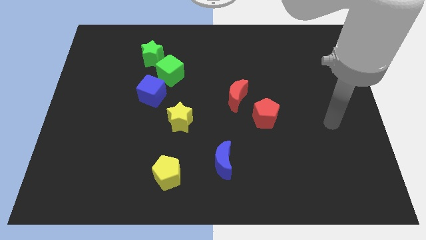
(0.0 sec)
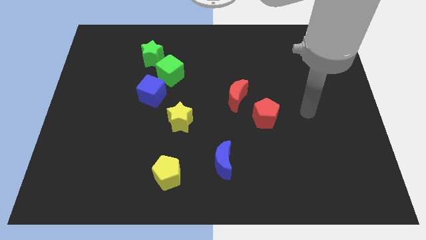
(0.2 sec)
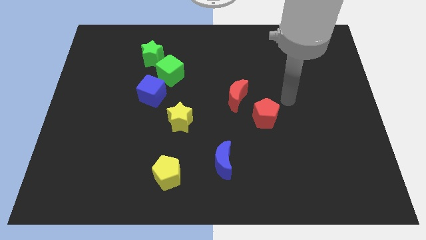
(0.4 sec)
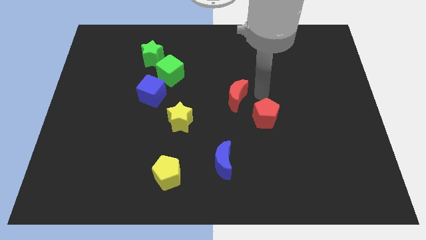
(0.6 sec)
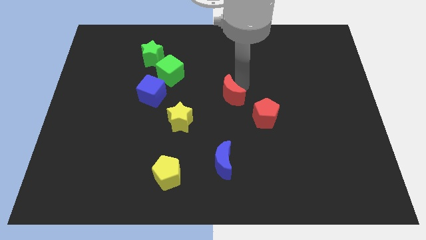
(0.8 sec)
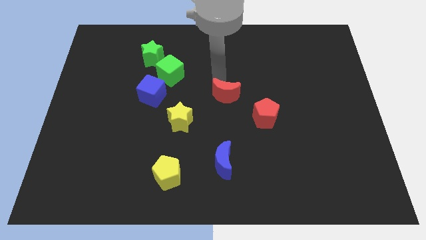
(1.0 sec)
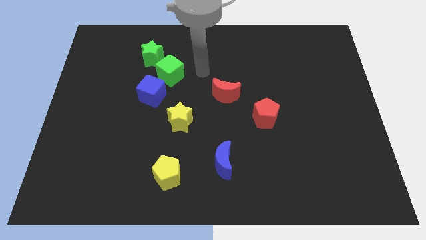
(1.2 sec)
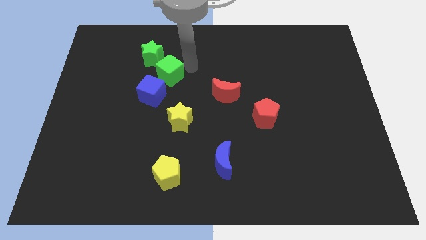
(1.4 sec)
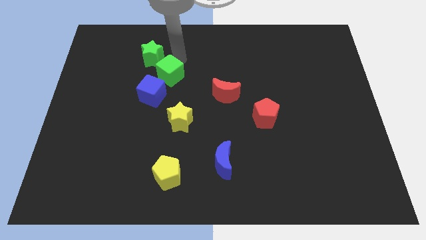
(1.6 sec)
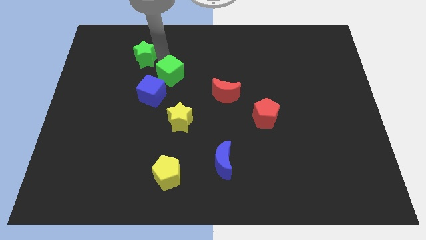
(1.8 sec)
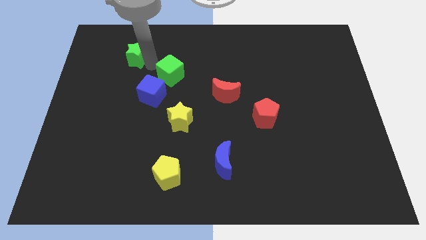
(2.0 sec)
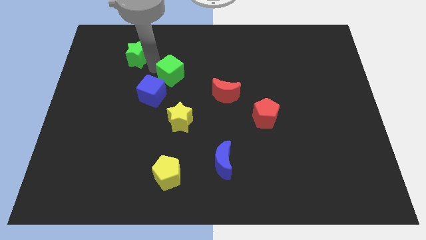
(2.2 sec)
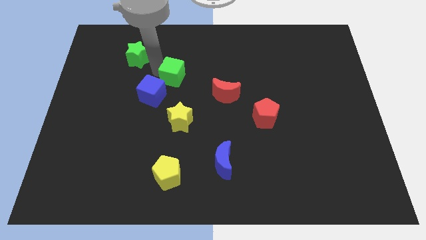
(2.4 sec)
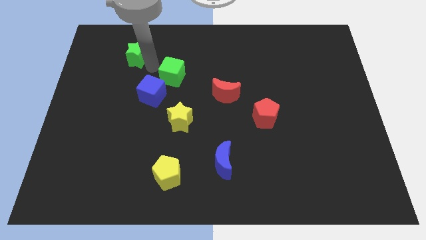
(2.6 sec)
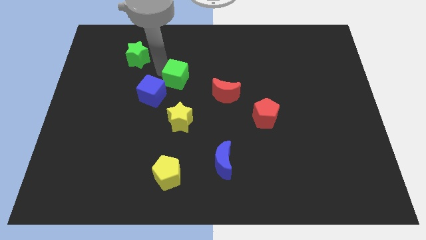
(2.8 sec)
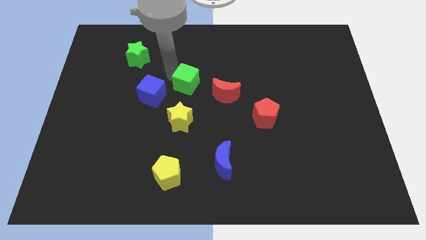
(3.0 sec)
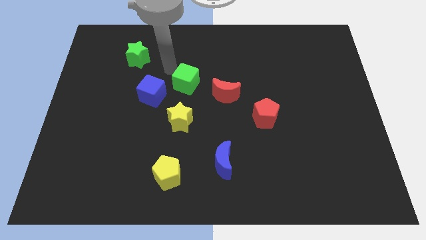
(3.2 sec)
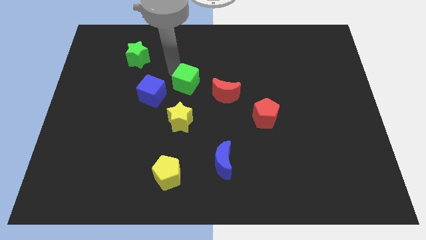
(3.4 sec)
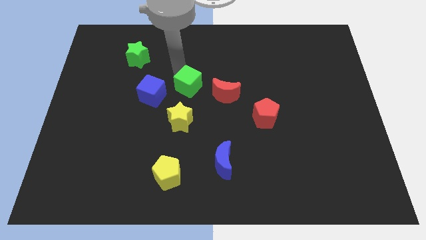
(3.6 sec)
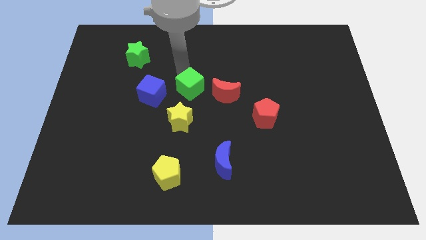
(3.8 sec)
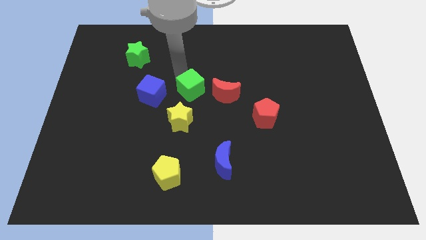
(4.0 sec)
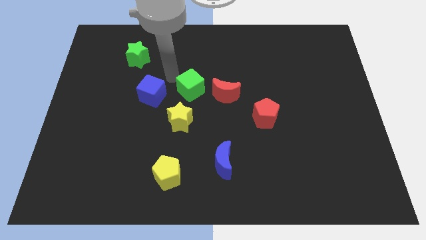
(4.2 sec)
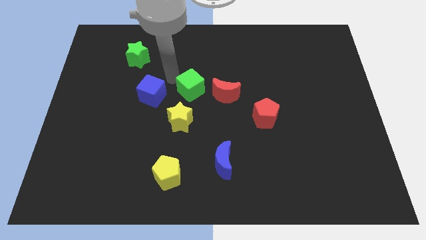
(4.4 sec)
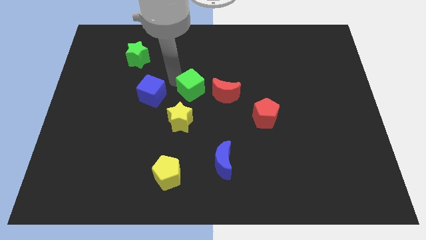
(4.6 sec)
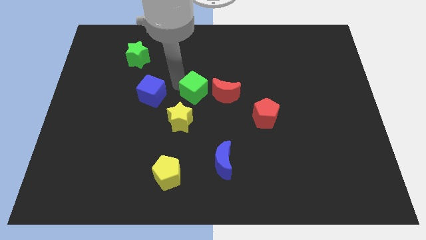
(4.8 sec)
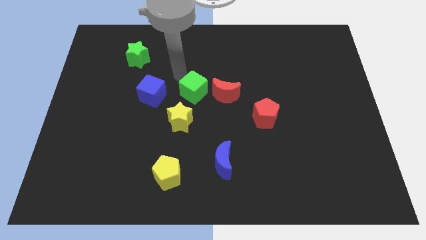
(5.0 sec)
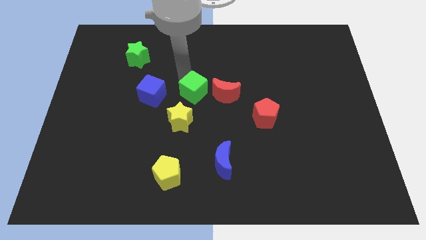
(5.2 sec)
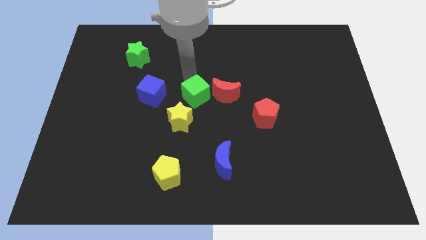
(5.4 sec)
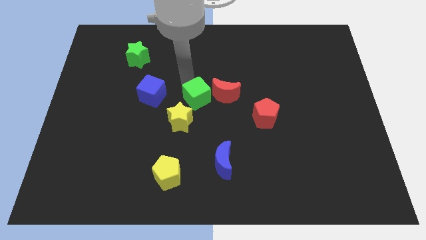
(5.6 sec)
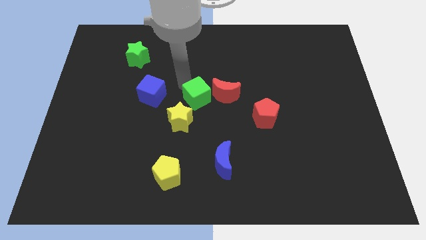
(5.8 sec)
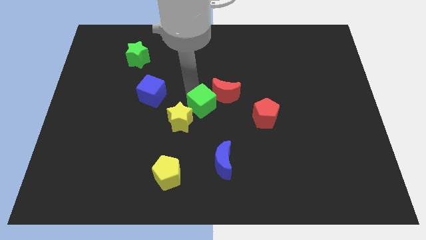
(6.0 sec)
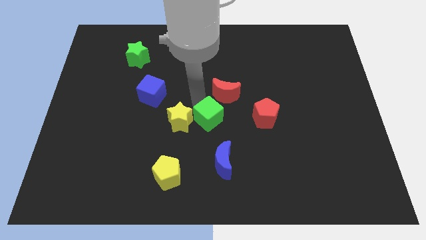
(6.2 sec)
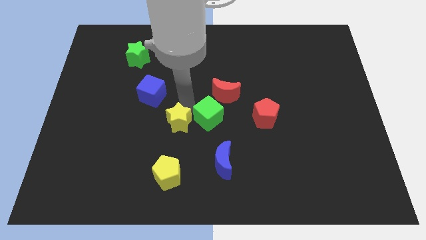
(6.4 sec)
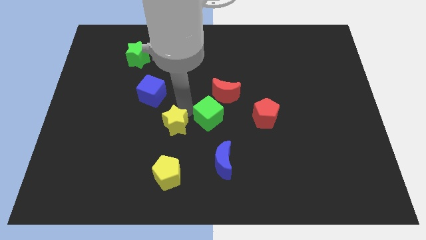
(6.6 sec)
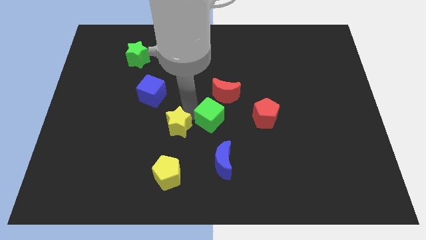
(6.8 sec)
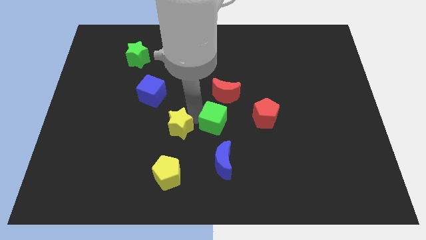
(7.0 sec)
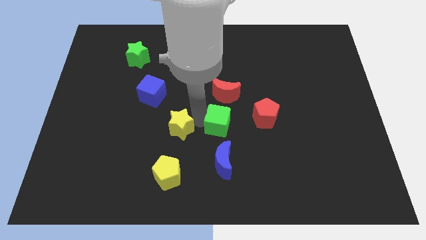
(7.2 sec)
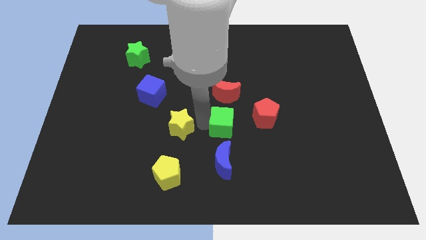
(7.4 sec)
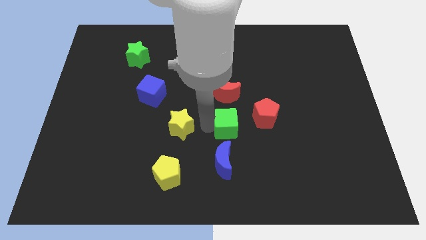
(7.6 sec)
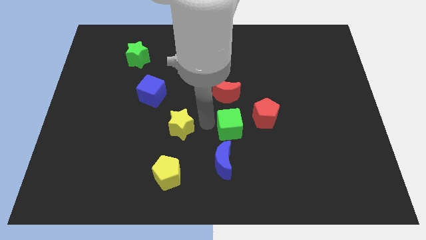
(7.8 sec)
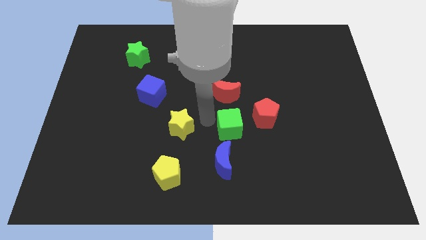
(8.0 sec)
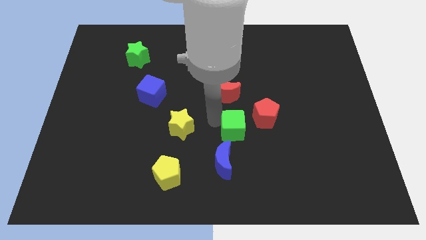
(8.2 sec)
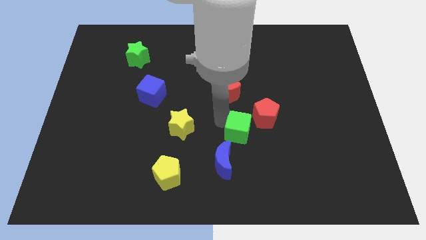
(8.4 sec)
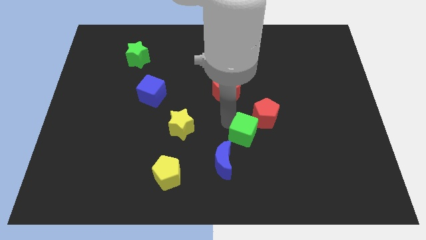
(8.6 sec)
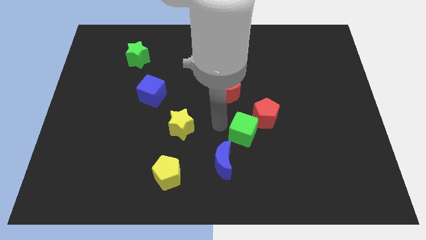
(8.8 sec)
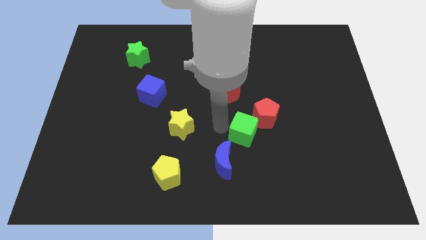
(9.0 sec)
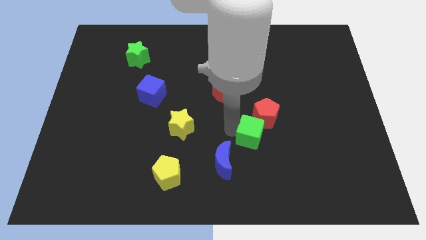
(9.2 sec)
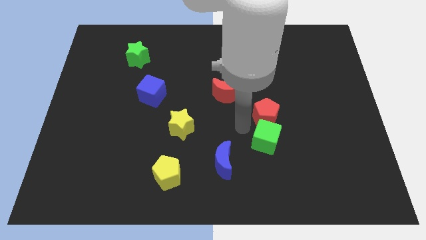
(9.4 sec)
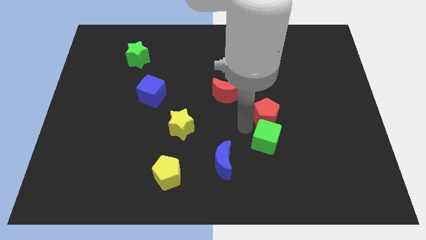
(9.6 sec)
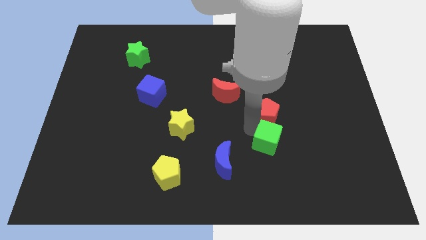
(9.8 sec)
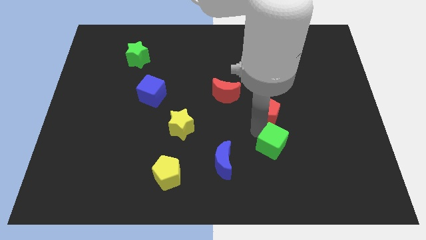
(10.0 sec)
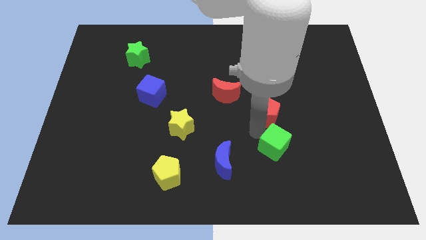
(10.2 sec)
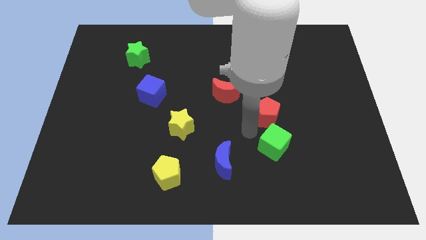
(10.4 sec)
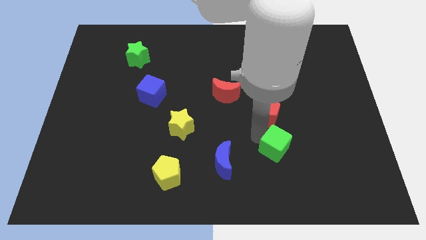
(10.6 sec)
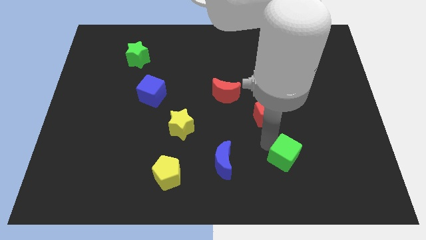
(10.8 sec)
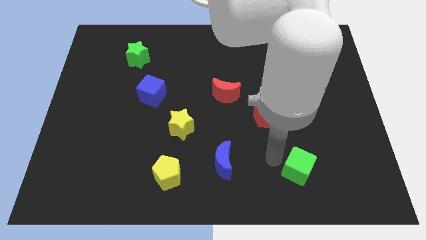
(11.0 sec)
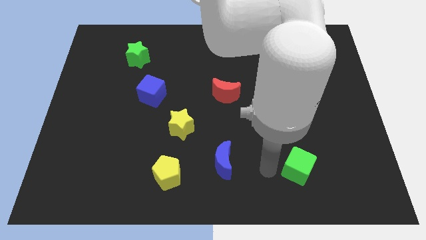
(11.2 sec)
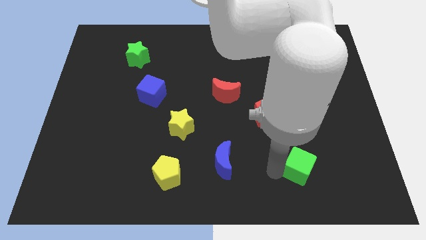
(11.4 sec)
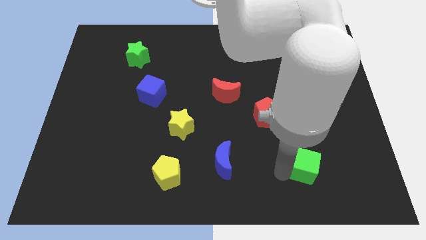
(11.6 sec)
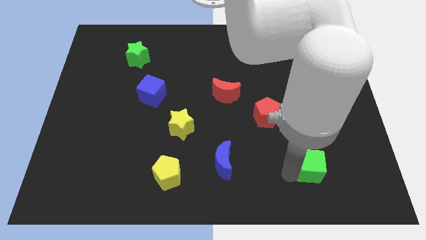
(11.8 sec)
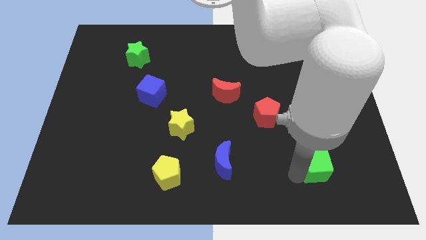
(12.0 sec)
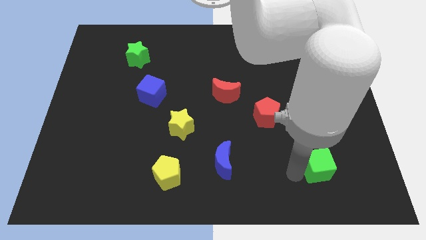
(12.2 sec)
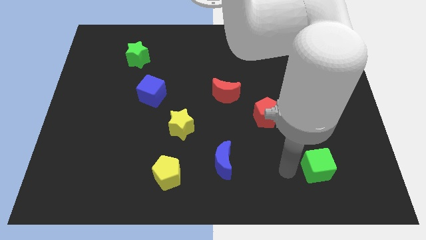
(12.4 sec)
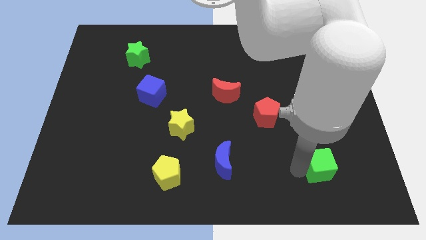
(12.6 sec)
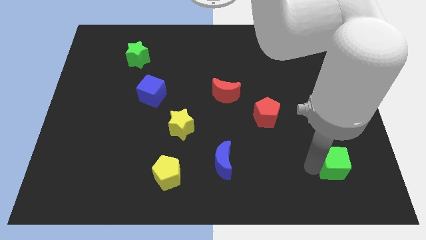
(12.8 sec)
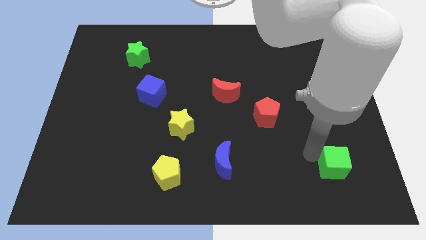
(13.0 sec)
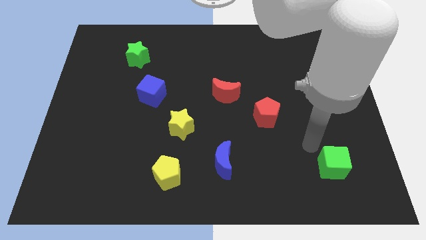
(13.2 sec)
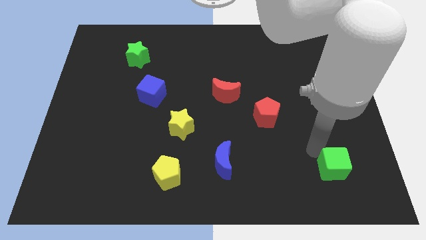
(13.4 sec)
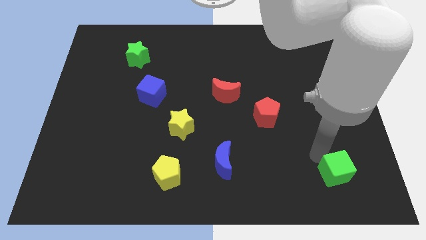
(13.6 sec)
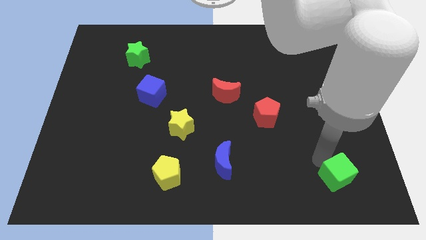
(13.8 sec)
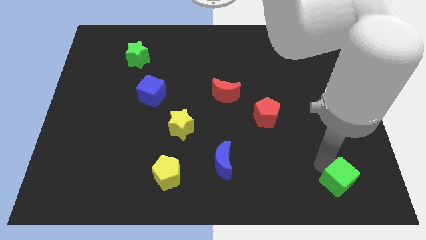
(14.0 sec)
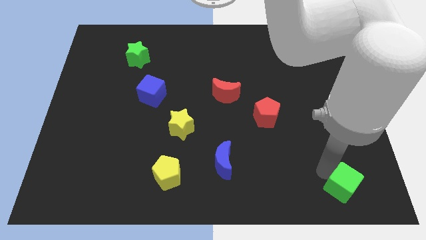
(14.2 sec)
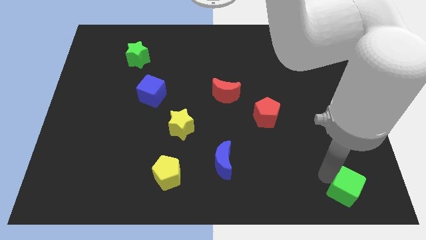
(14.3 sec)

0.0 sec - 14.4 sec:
push the green cube to the bottom right corner
